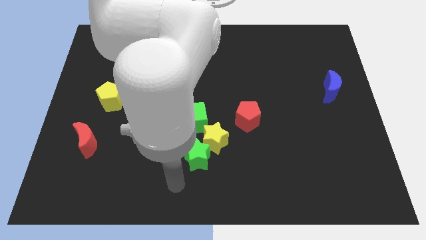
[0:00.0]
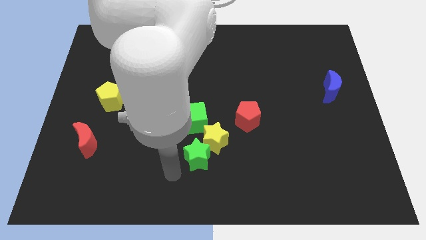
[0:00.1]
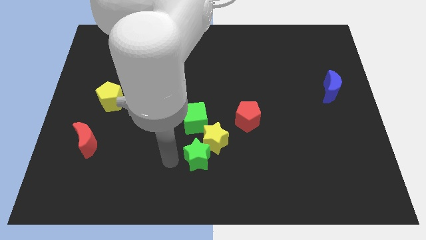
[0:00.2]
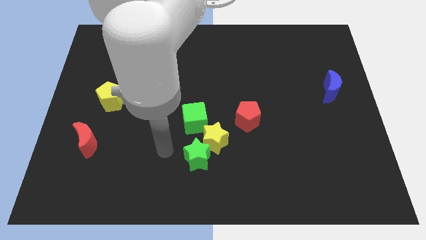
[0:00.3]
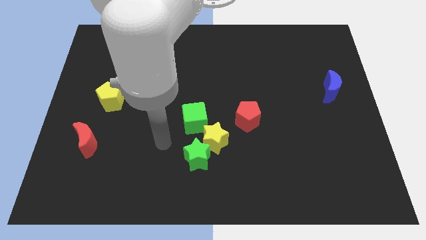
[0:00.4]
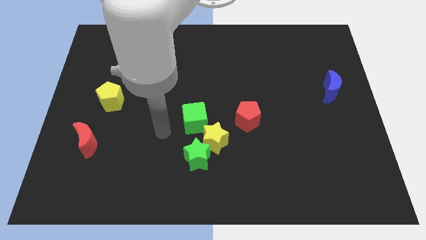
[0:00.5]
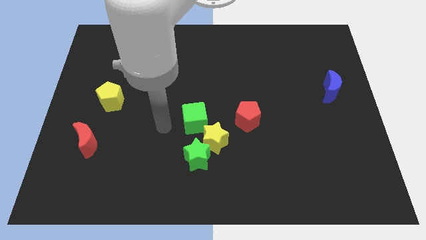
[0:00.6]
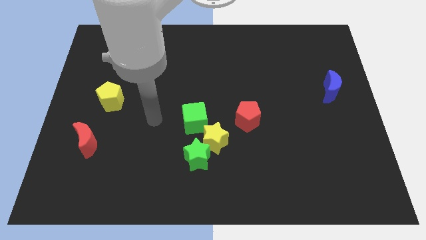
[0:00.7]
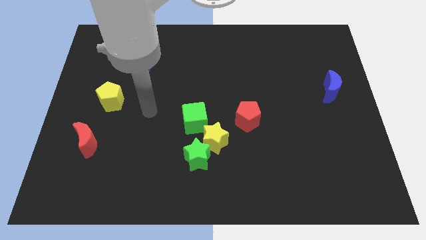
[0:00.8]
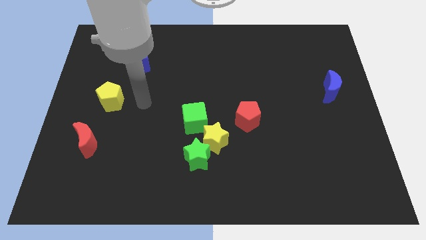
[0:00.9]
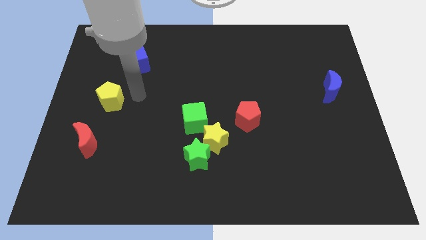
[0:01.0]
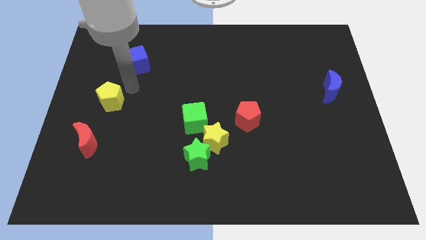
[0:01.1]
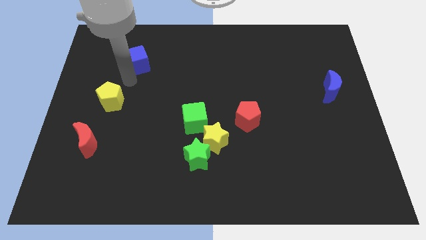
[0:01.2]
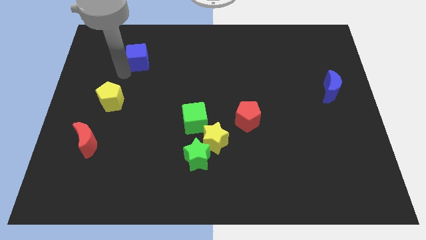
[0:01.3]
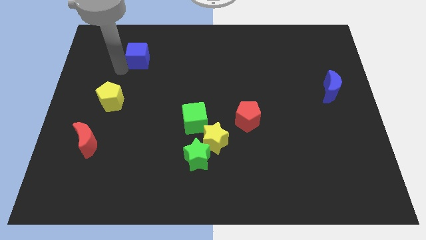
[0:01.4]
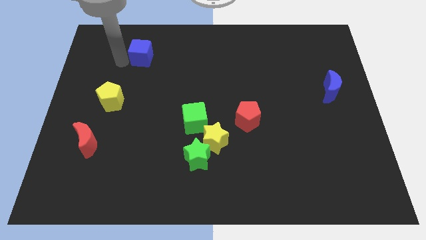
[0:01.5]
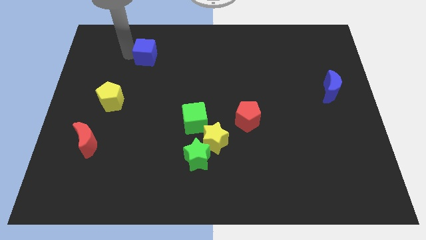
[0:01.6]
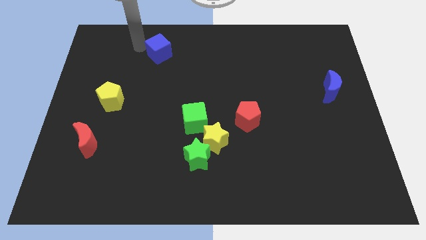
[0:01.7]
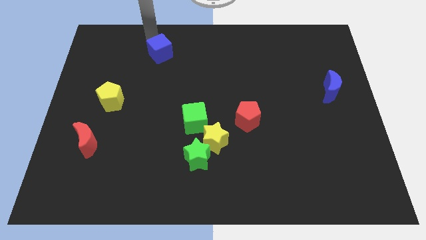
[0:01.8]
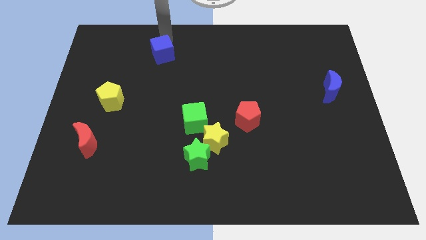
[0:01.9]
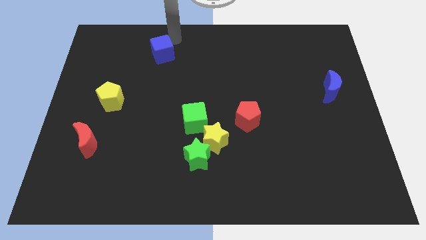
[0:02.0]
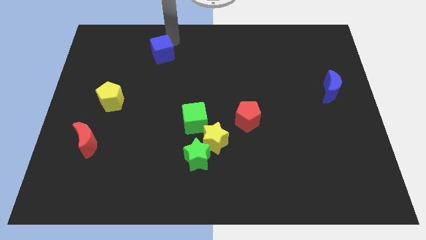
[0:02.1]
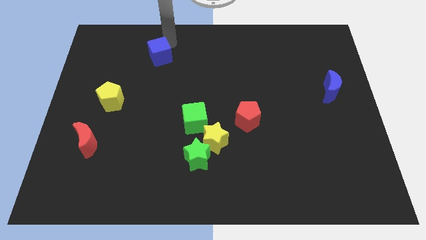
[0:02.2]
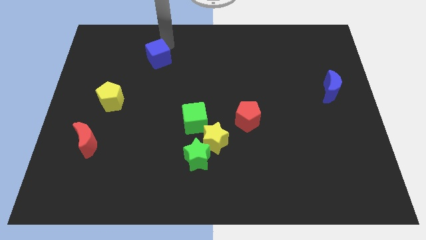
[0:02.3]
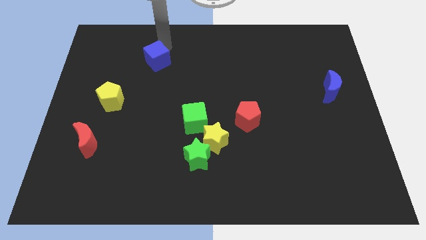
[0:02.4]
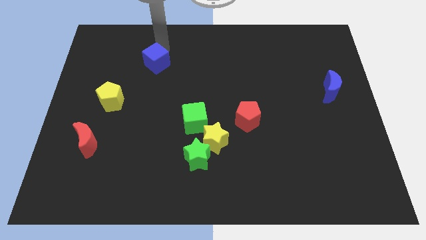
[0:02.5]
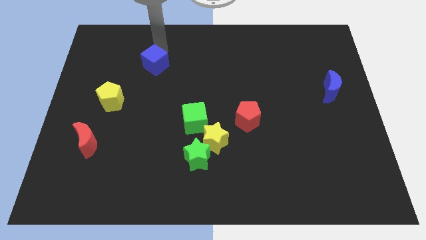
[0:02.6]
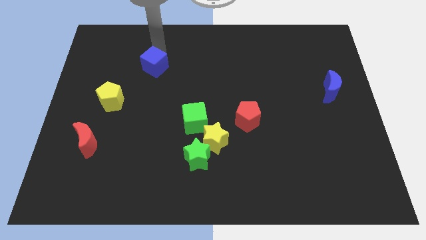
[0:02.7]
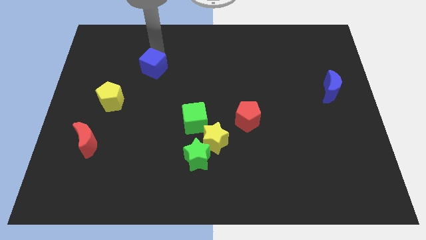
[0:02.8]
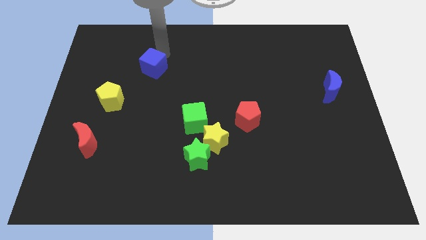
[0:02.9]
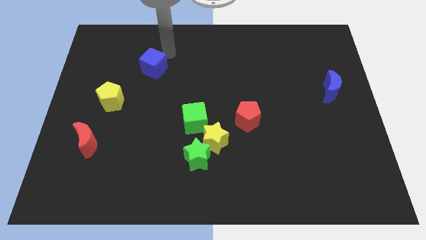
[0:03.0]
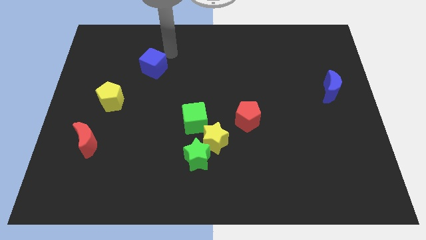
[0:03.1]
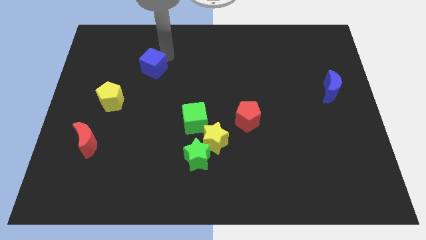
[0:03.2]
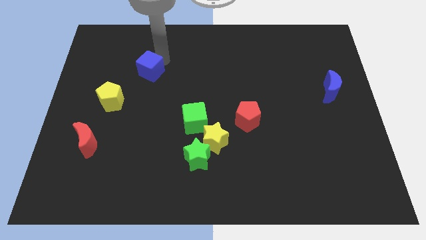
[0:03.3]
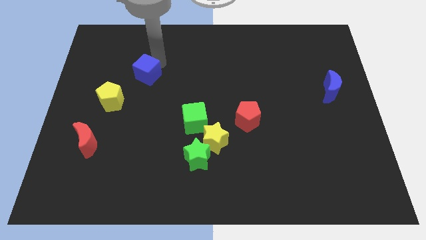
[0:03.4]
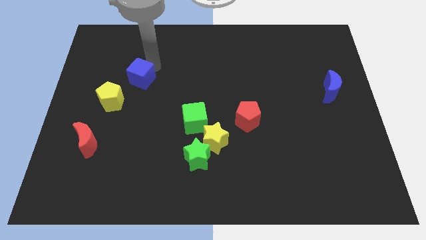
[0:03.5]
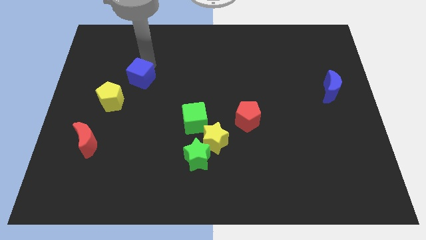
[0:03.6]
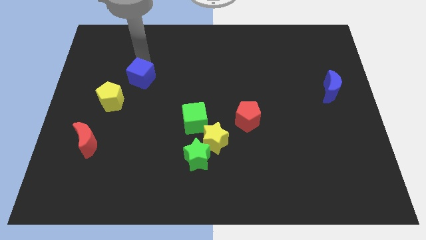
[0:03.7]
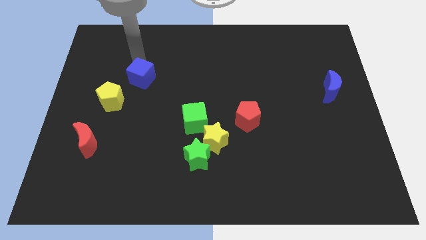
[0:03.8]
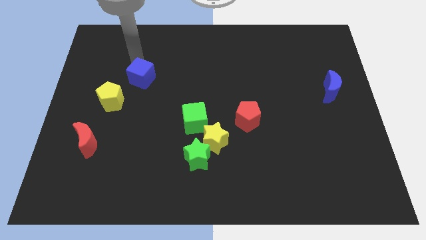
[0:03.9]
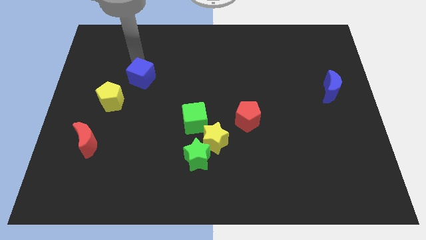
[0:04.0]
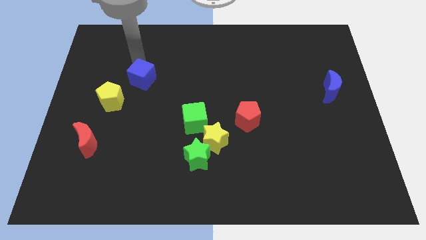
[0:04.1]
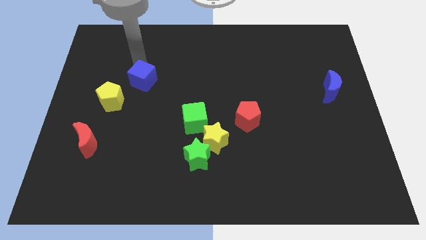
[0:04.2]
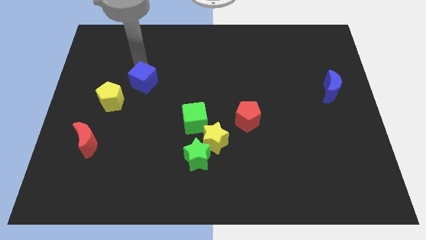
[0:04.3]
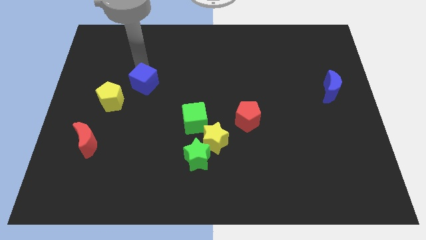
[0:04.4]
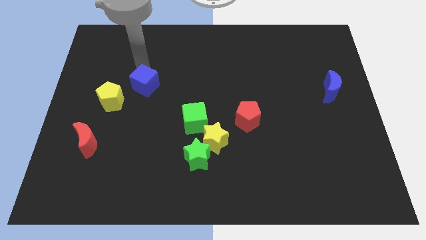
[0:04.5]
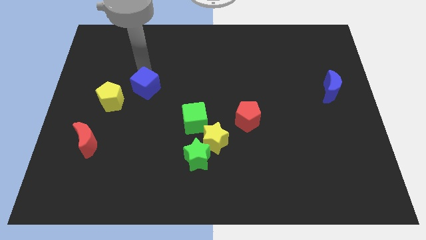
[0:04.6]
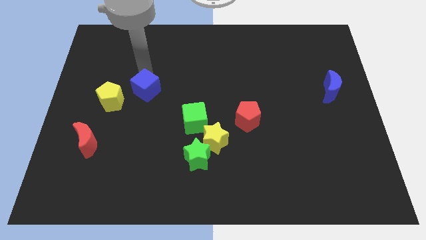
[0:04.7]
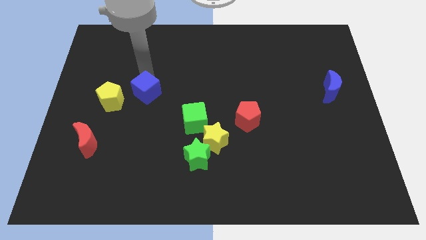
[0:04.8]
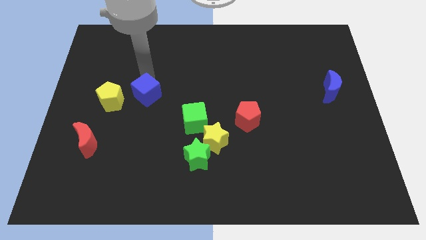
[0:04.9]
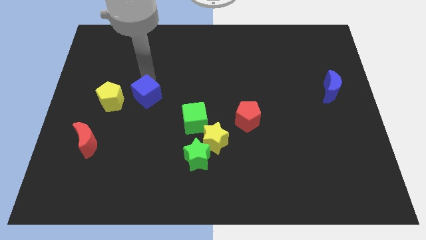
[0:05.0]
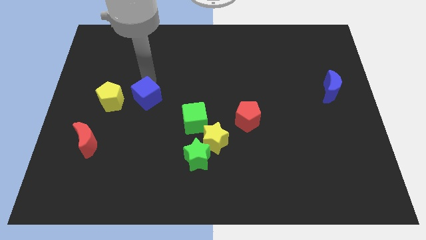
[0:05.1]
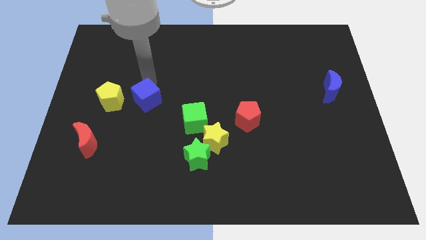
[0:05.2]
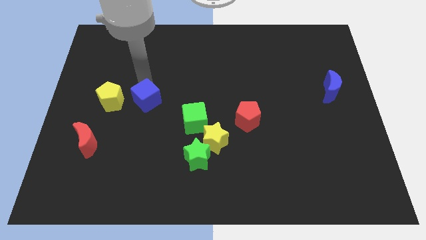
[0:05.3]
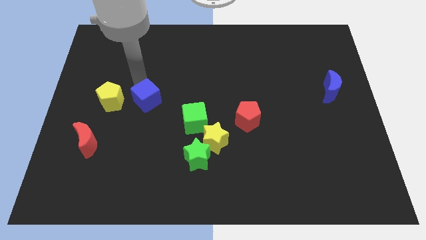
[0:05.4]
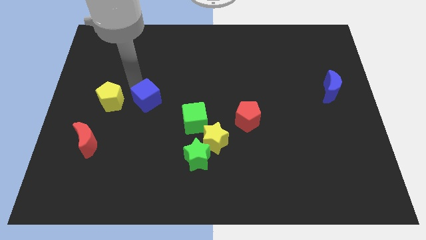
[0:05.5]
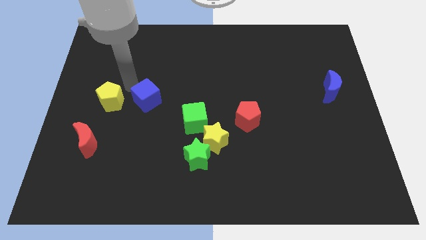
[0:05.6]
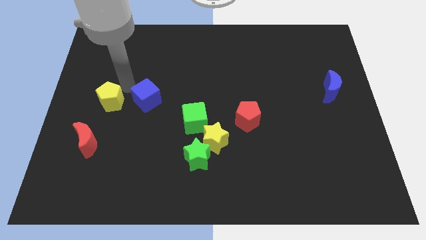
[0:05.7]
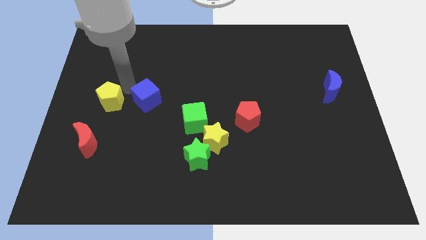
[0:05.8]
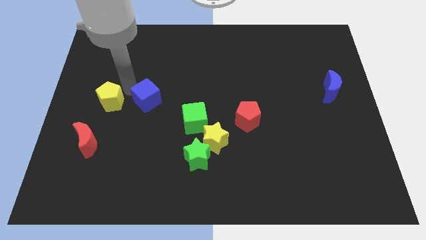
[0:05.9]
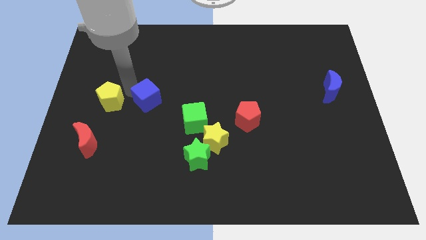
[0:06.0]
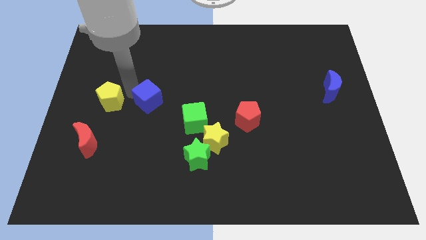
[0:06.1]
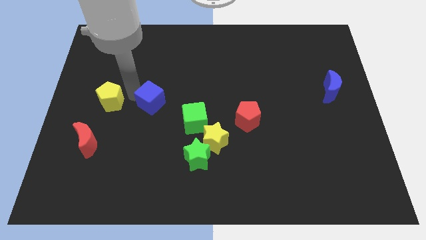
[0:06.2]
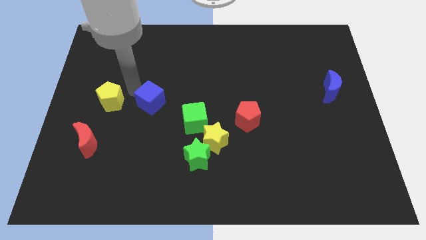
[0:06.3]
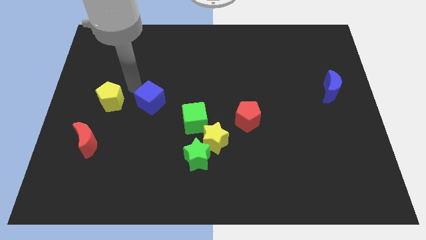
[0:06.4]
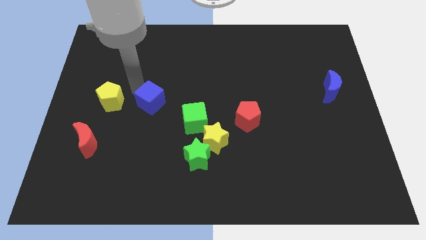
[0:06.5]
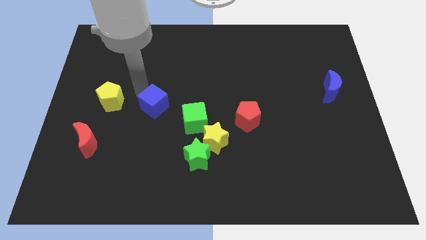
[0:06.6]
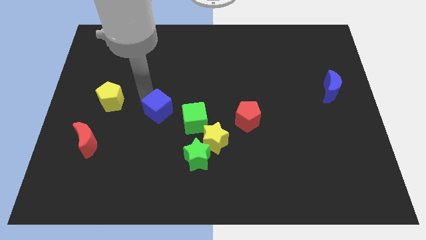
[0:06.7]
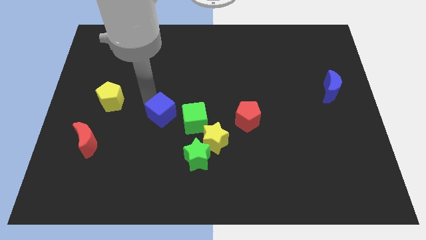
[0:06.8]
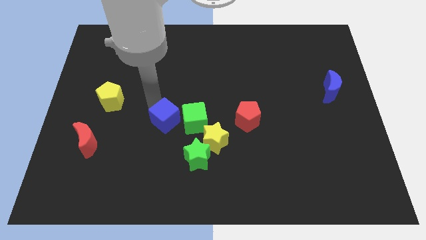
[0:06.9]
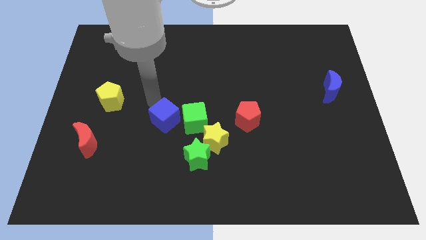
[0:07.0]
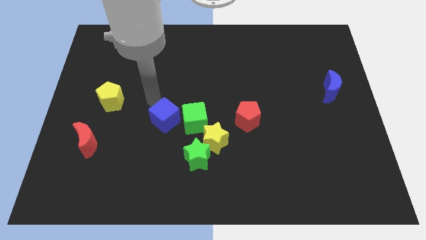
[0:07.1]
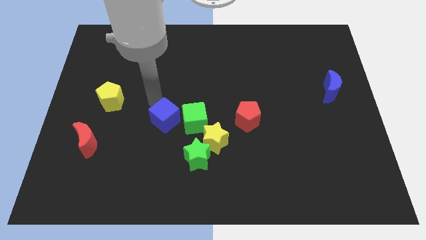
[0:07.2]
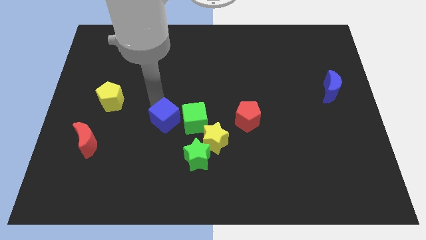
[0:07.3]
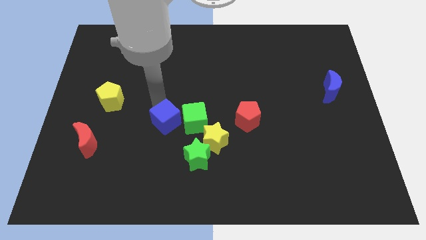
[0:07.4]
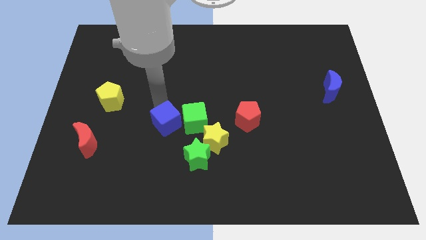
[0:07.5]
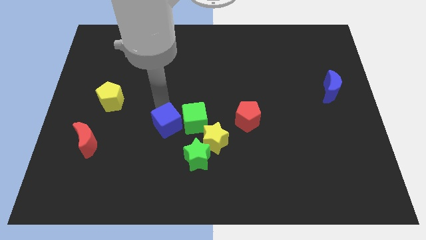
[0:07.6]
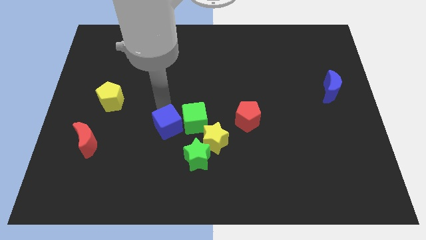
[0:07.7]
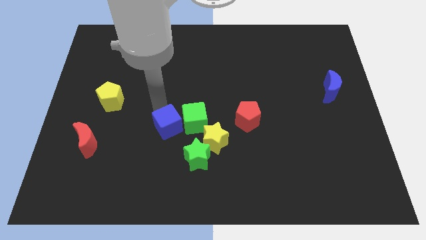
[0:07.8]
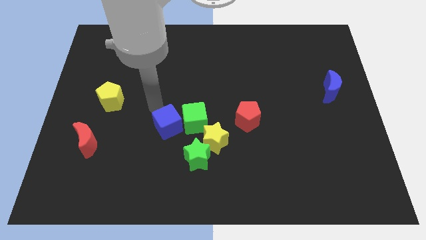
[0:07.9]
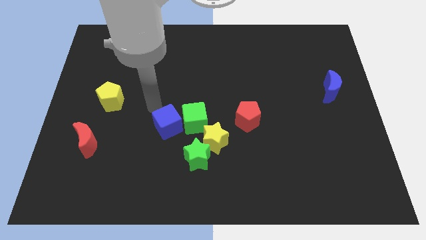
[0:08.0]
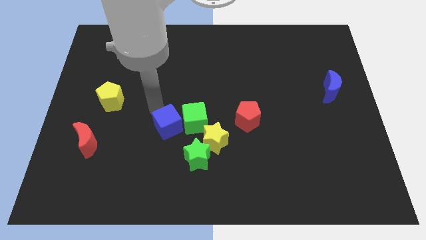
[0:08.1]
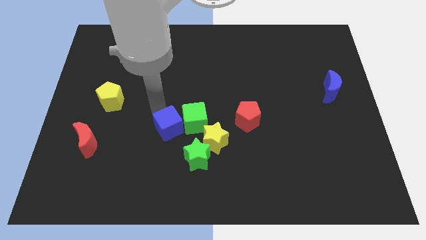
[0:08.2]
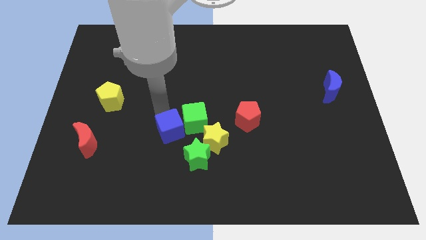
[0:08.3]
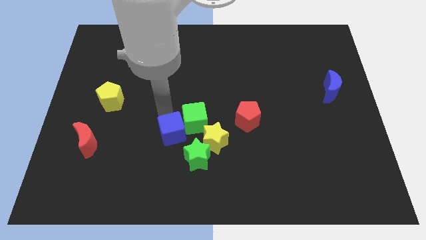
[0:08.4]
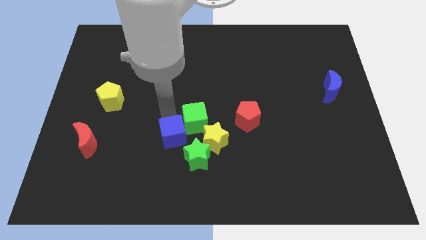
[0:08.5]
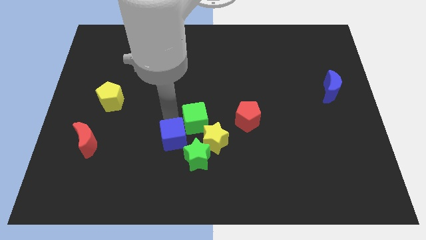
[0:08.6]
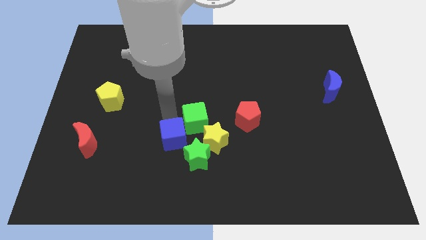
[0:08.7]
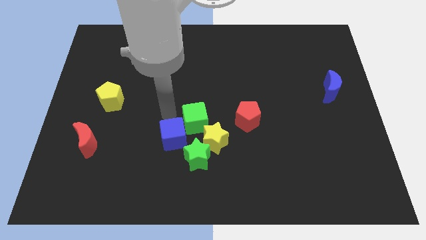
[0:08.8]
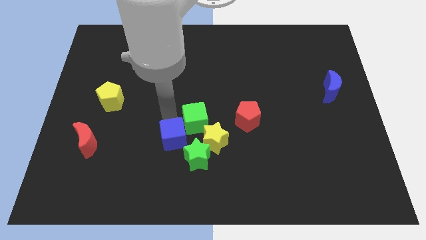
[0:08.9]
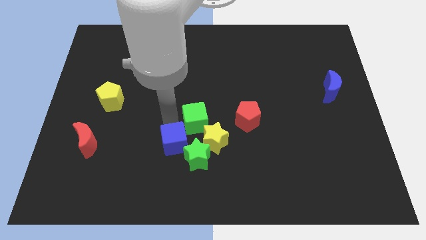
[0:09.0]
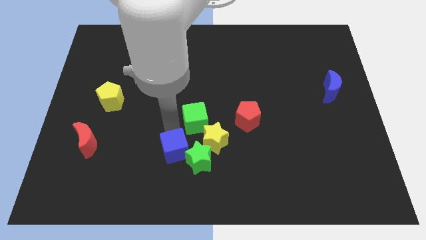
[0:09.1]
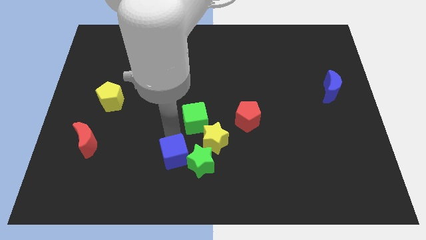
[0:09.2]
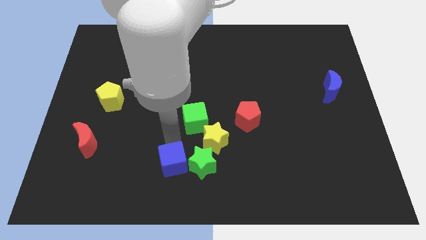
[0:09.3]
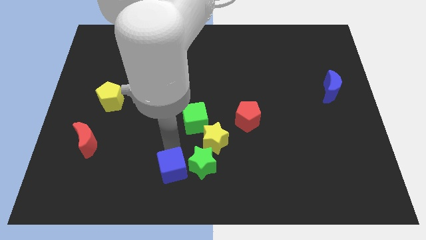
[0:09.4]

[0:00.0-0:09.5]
move the blue cube to the bottom side
